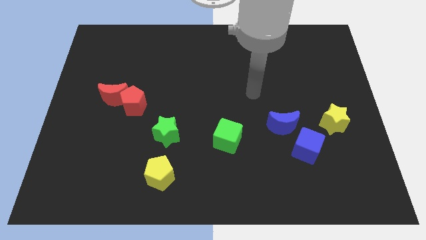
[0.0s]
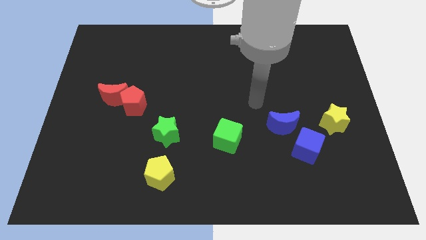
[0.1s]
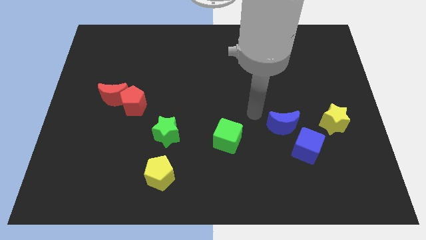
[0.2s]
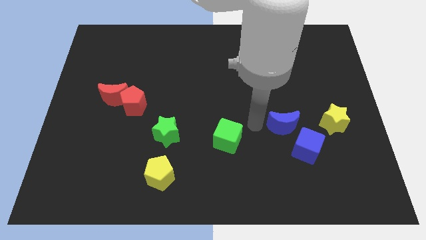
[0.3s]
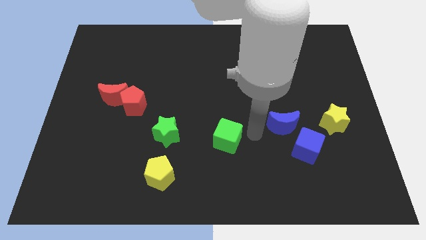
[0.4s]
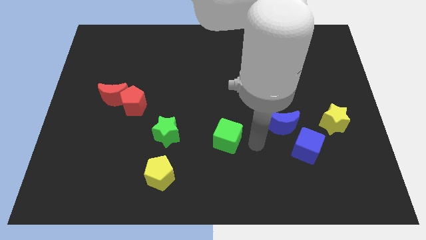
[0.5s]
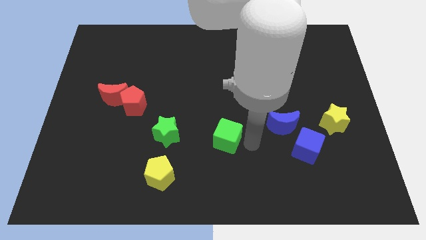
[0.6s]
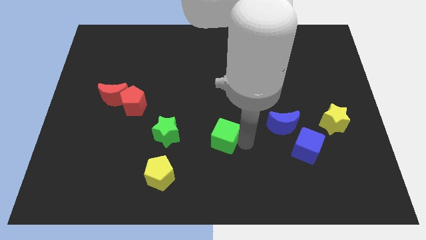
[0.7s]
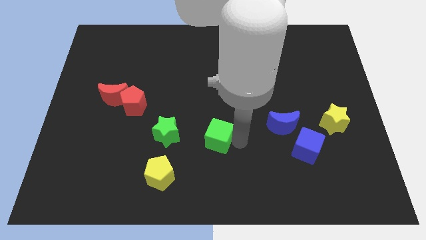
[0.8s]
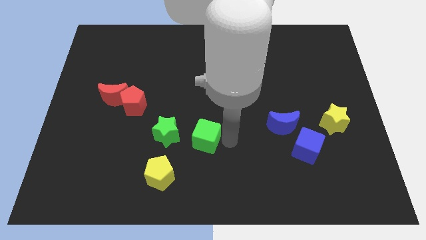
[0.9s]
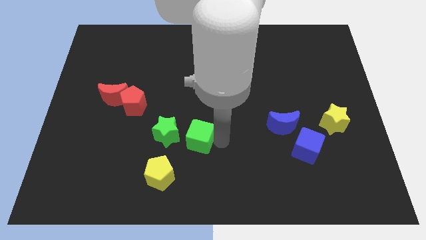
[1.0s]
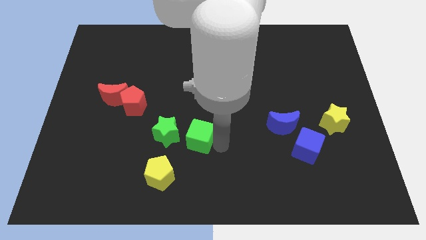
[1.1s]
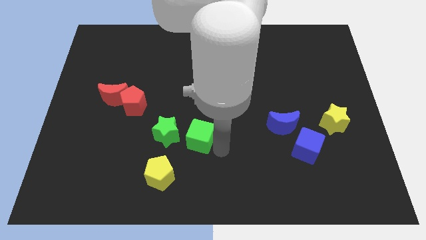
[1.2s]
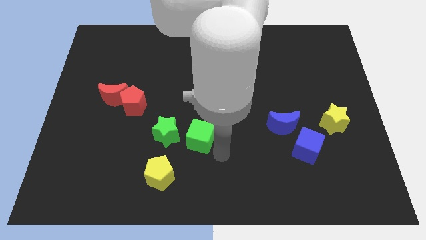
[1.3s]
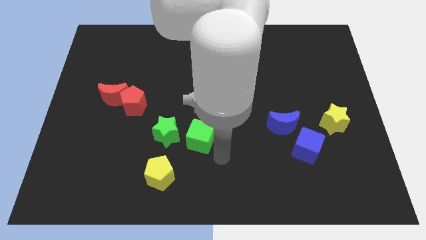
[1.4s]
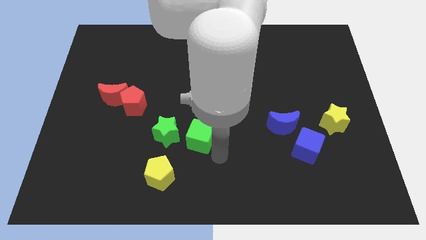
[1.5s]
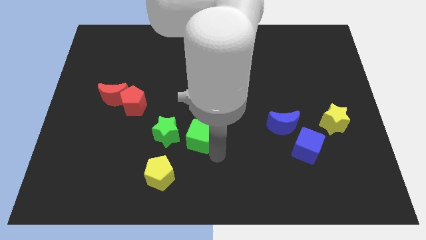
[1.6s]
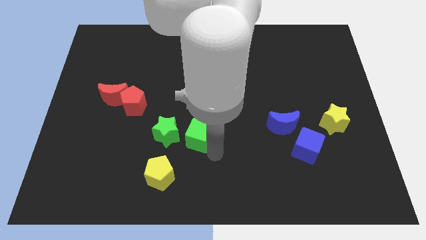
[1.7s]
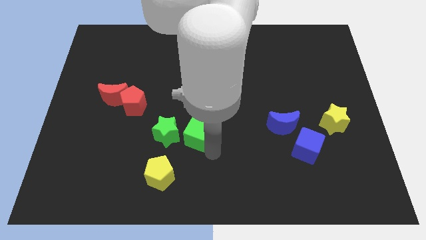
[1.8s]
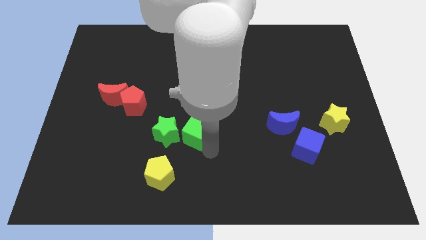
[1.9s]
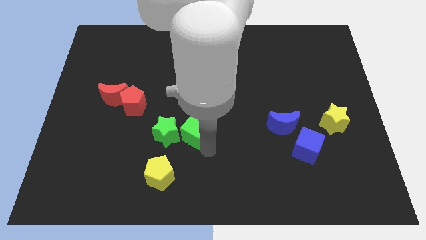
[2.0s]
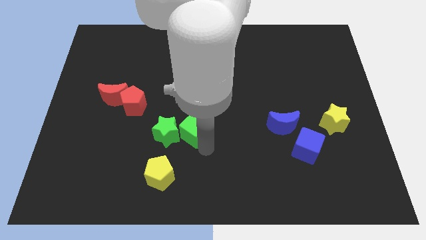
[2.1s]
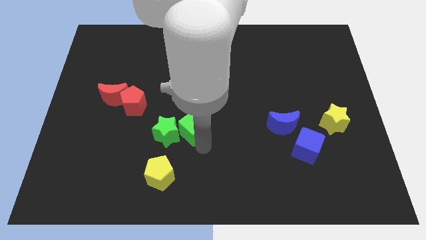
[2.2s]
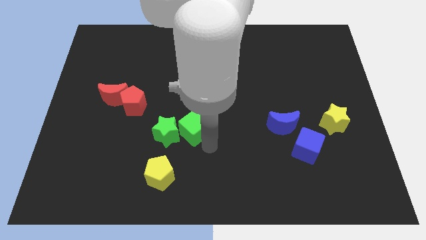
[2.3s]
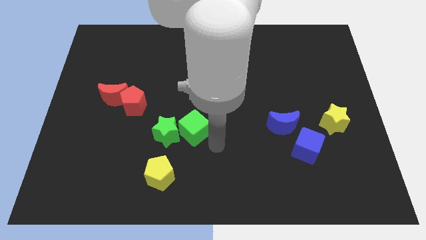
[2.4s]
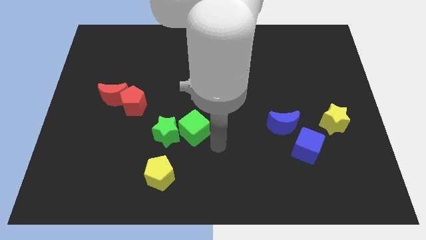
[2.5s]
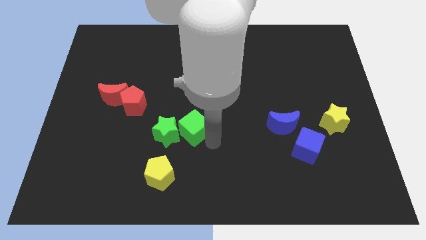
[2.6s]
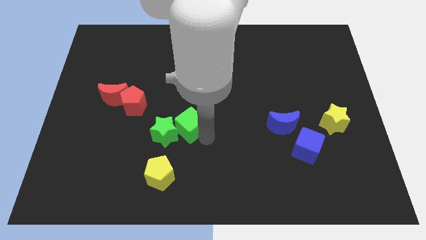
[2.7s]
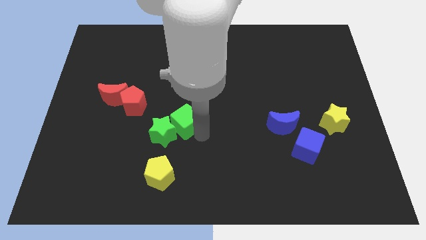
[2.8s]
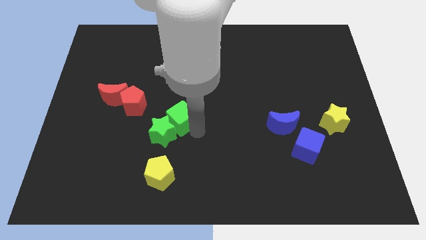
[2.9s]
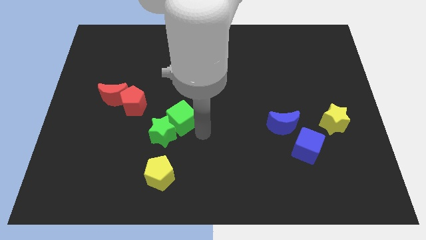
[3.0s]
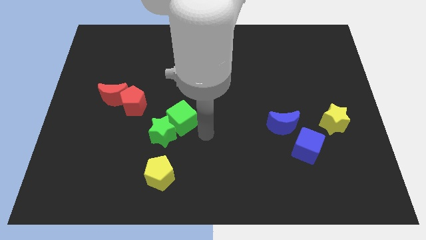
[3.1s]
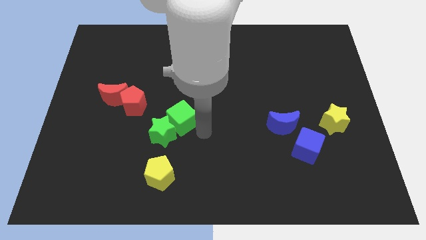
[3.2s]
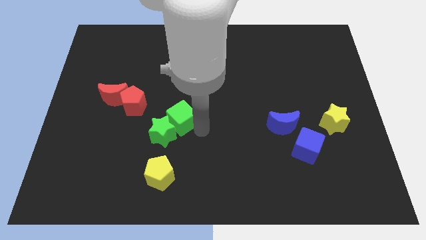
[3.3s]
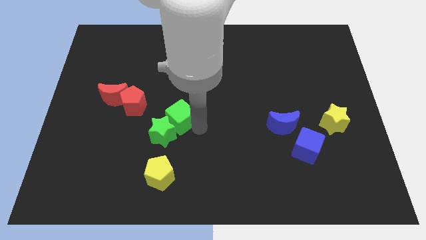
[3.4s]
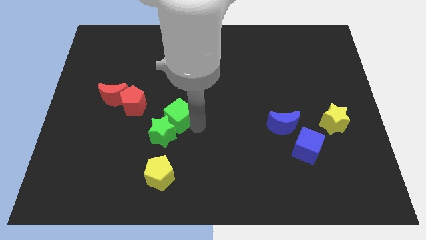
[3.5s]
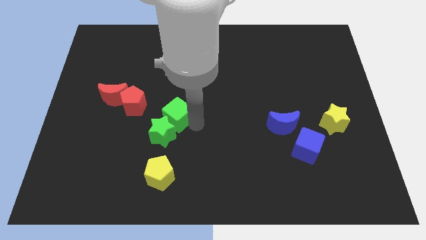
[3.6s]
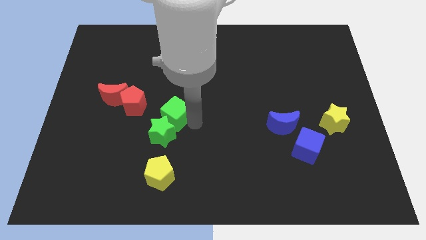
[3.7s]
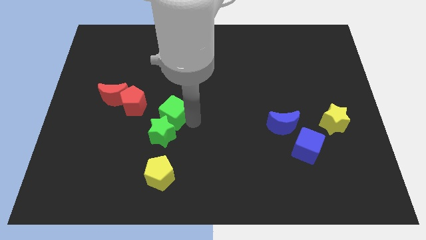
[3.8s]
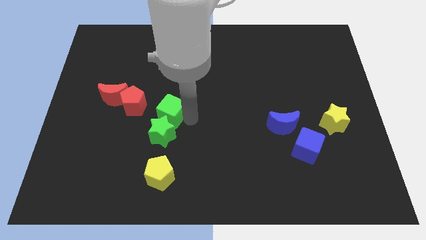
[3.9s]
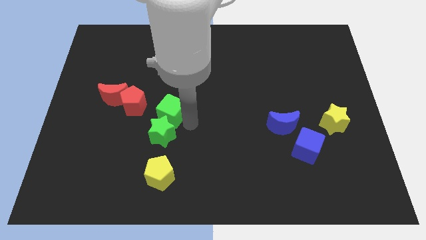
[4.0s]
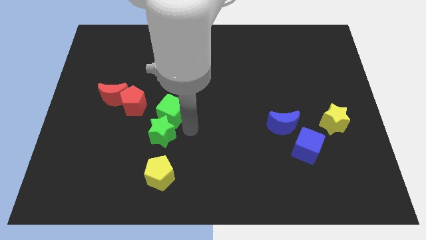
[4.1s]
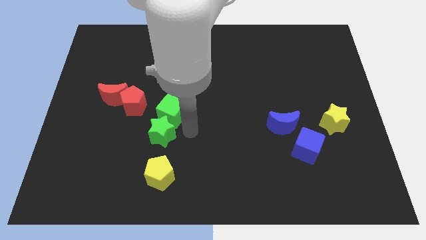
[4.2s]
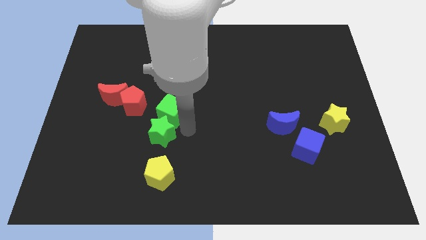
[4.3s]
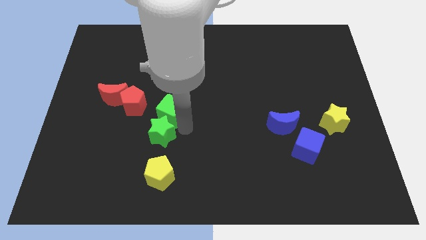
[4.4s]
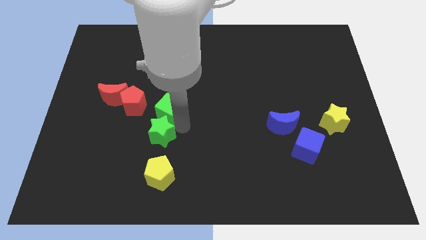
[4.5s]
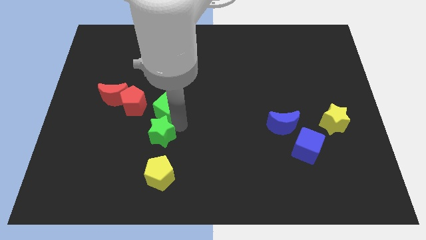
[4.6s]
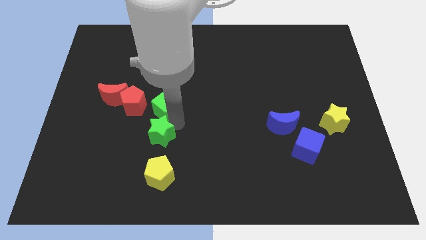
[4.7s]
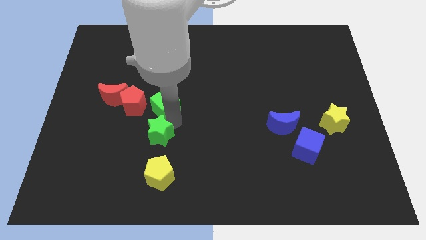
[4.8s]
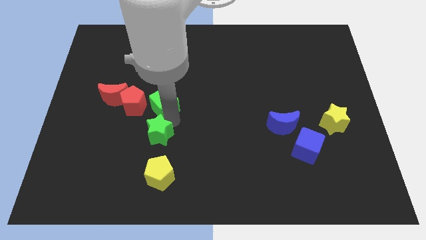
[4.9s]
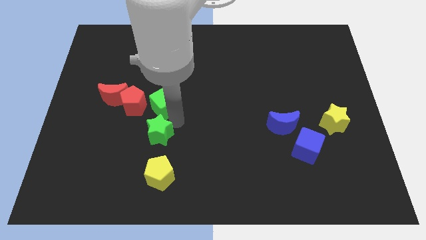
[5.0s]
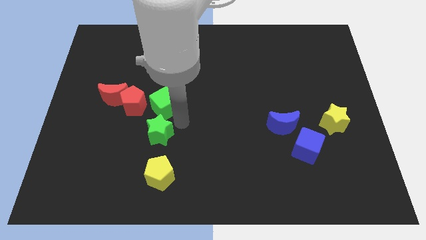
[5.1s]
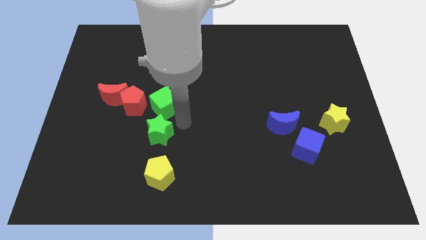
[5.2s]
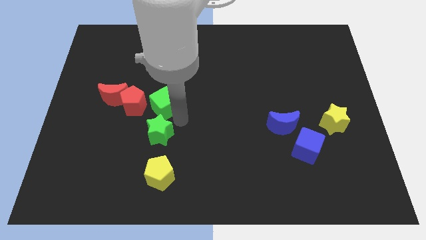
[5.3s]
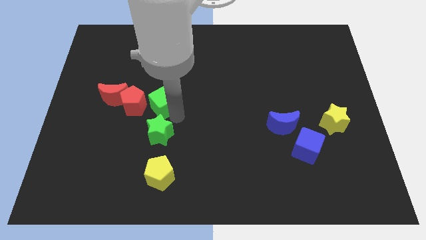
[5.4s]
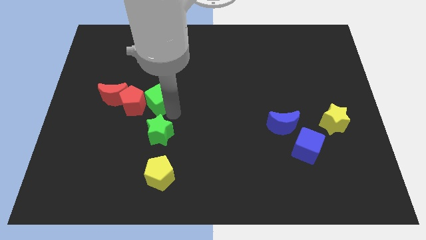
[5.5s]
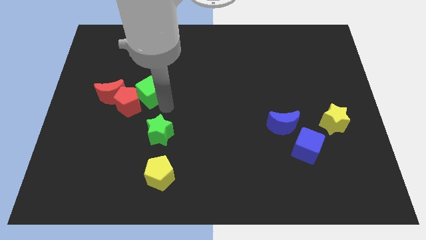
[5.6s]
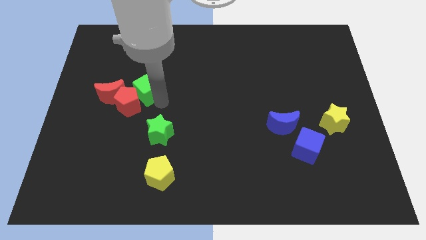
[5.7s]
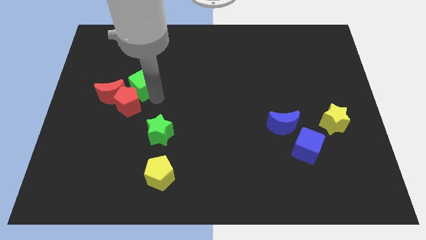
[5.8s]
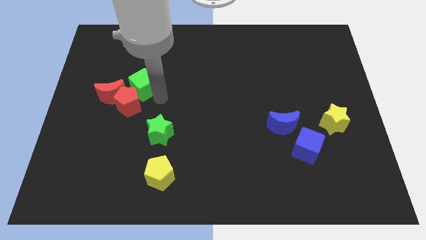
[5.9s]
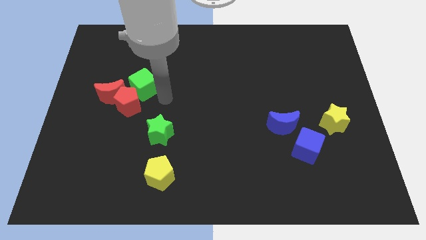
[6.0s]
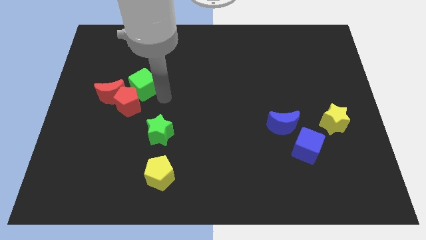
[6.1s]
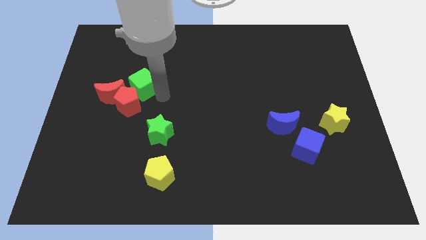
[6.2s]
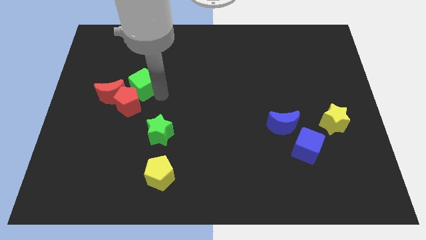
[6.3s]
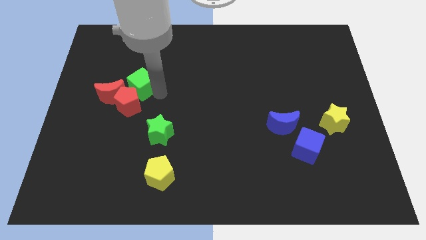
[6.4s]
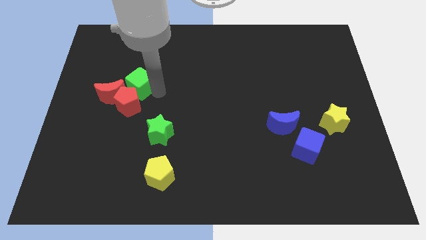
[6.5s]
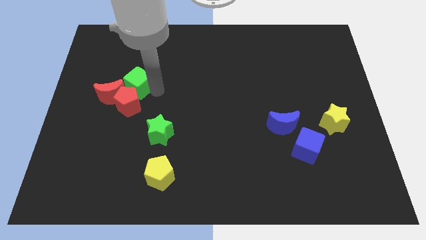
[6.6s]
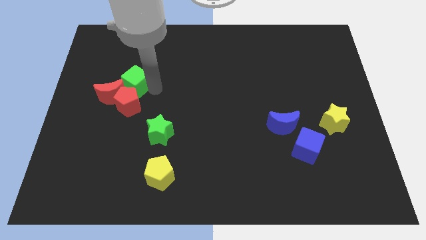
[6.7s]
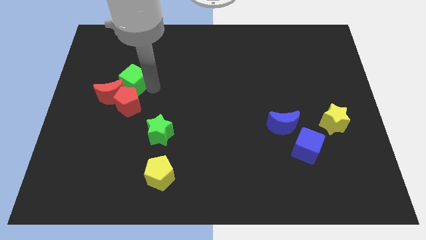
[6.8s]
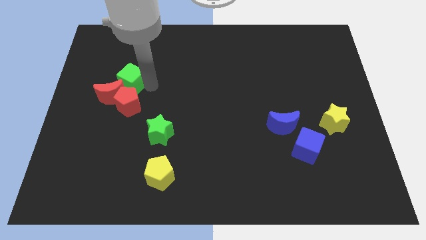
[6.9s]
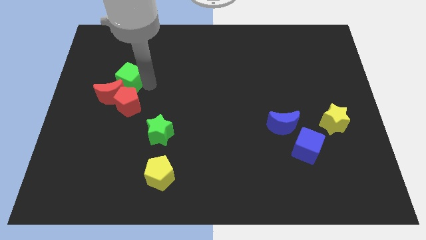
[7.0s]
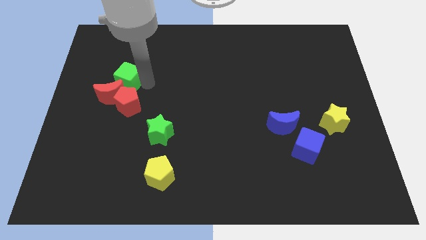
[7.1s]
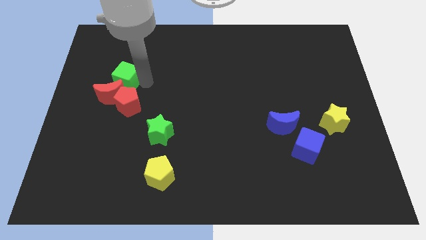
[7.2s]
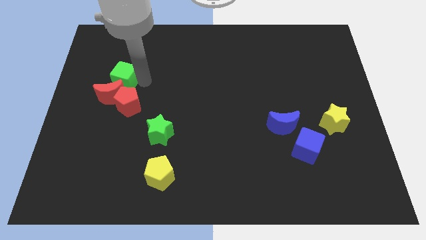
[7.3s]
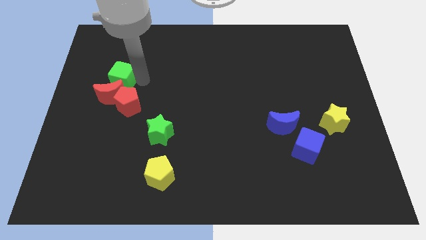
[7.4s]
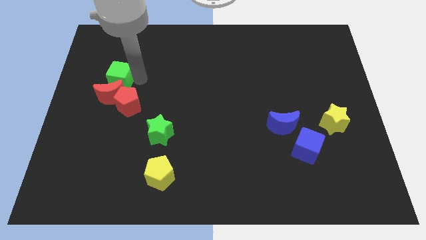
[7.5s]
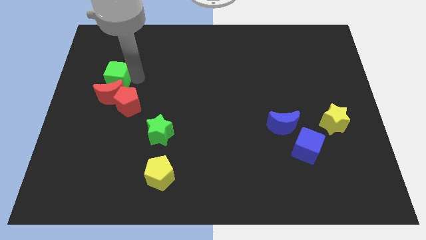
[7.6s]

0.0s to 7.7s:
move the green cube diagonally up and to the left of the red moon
